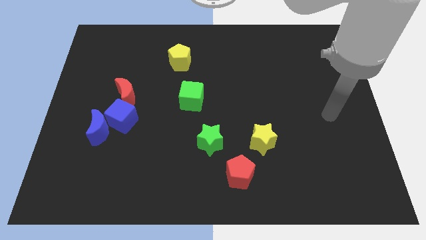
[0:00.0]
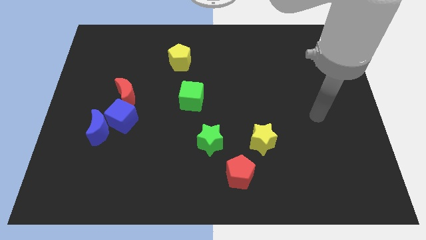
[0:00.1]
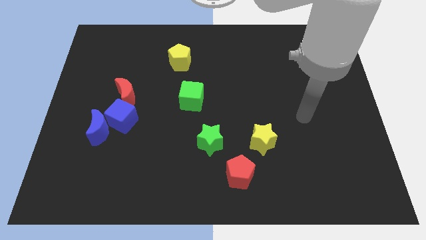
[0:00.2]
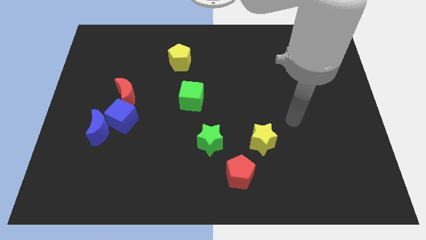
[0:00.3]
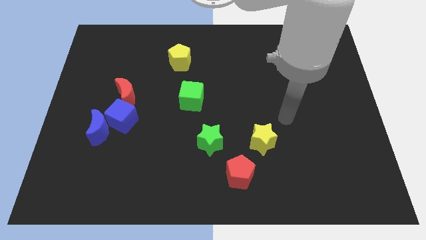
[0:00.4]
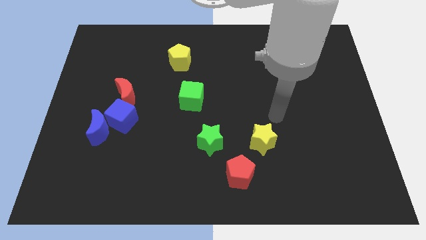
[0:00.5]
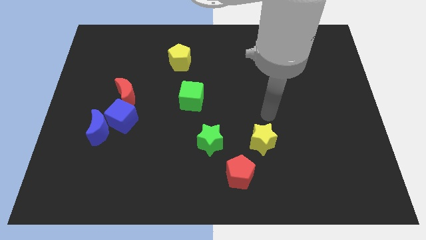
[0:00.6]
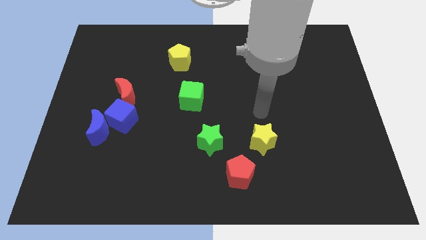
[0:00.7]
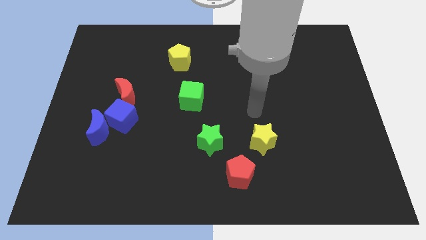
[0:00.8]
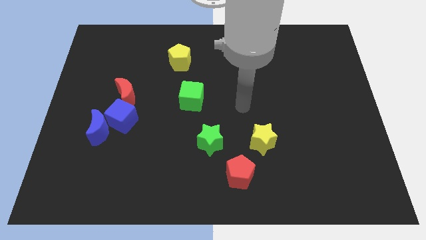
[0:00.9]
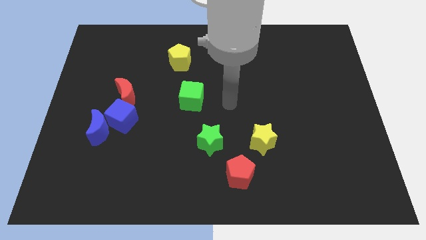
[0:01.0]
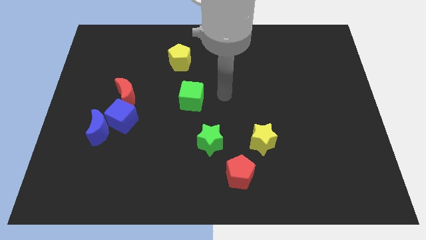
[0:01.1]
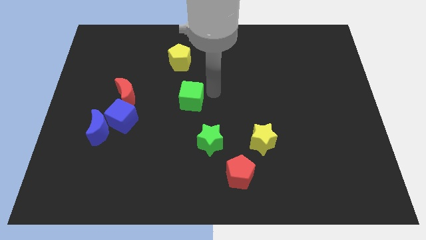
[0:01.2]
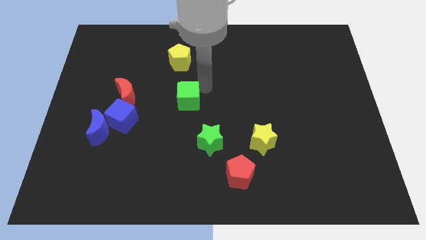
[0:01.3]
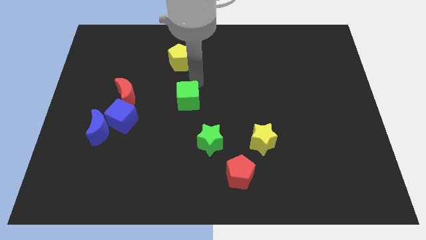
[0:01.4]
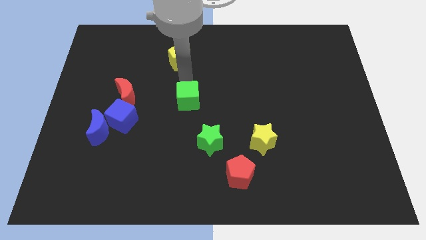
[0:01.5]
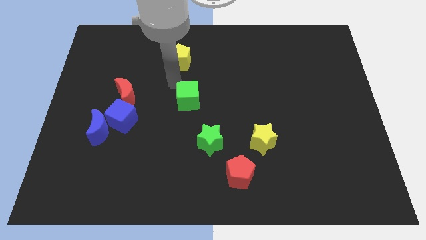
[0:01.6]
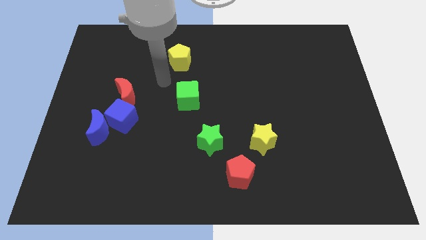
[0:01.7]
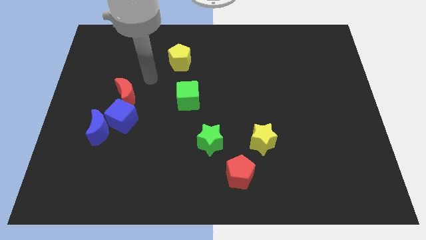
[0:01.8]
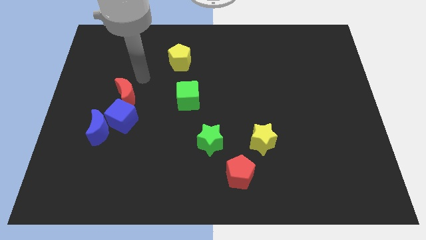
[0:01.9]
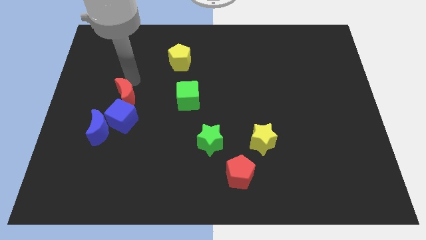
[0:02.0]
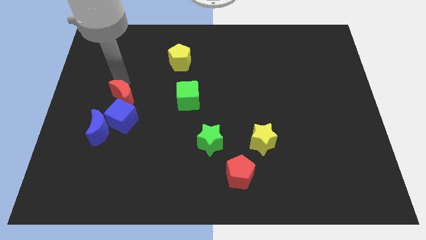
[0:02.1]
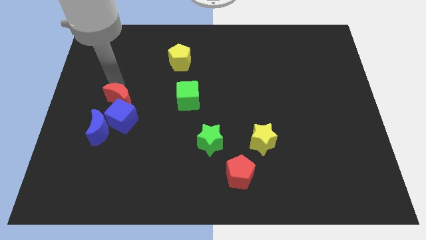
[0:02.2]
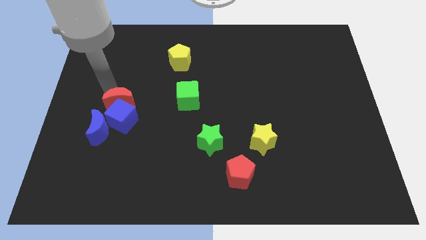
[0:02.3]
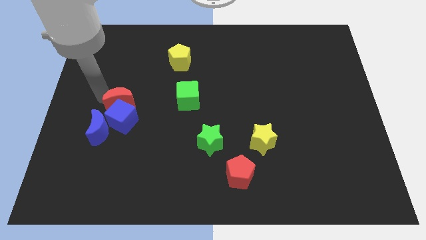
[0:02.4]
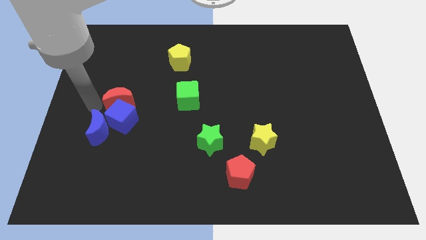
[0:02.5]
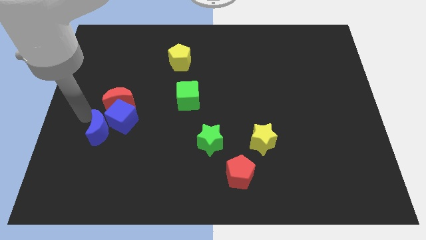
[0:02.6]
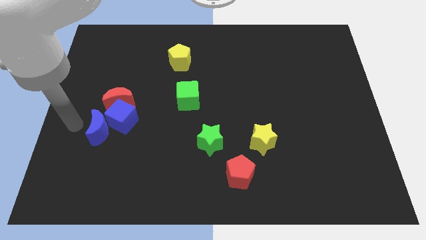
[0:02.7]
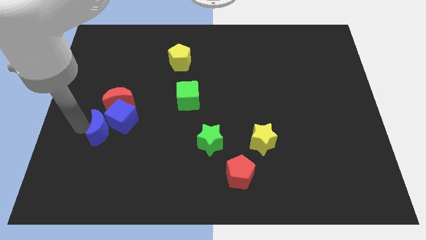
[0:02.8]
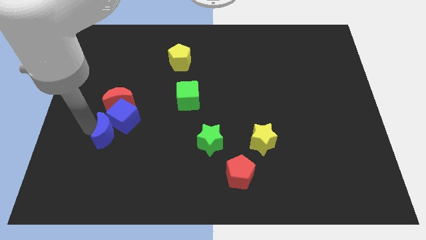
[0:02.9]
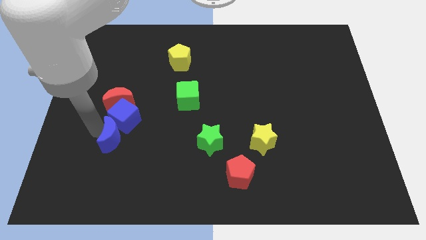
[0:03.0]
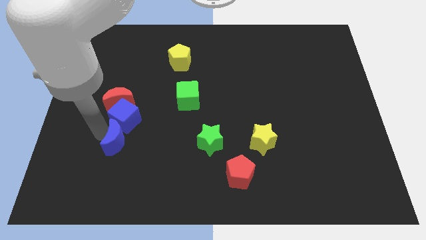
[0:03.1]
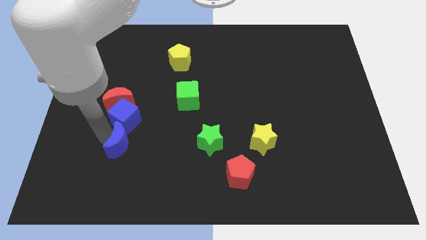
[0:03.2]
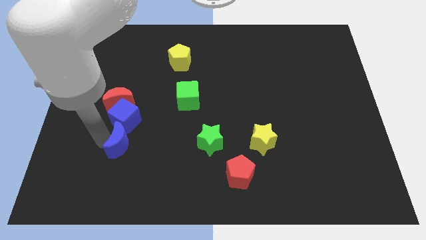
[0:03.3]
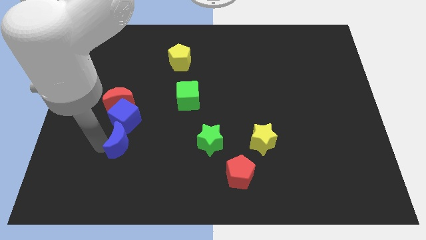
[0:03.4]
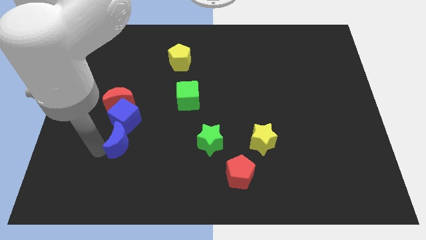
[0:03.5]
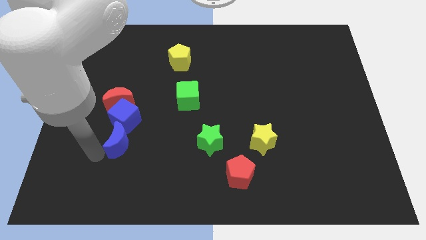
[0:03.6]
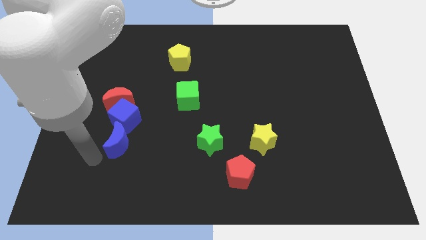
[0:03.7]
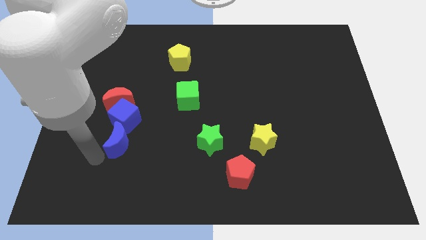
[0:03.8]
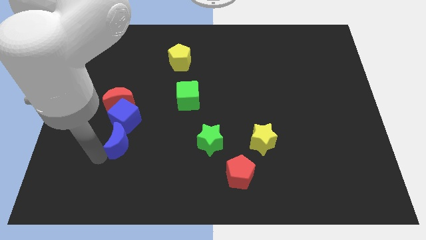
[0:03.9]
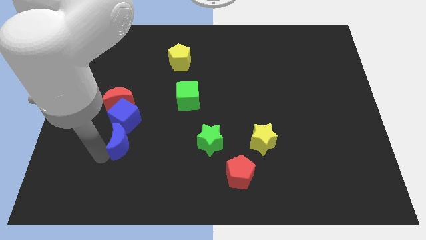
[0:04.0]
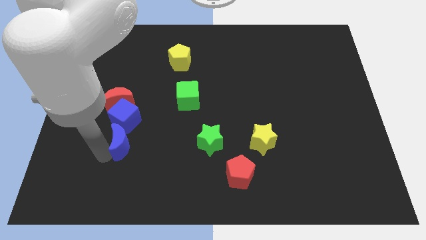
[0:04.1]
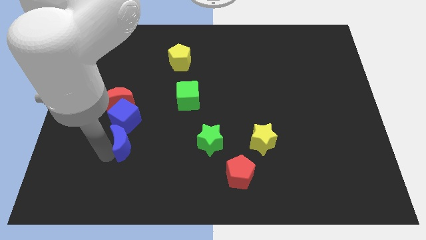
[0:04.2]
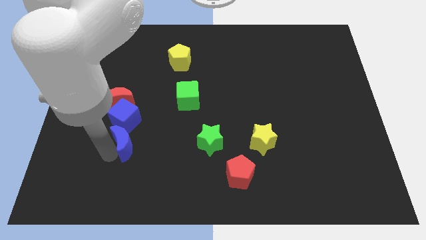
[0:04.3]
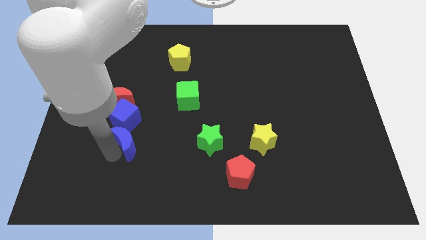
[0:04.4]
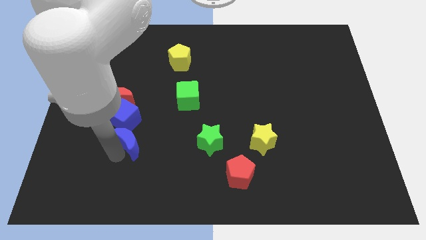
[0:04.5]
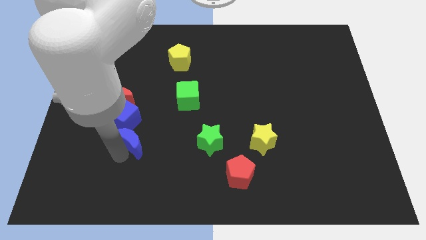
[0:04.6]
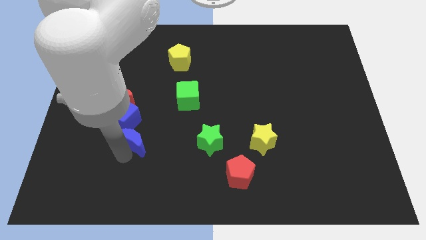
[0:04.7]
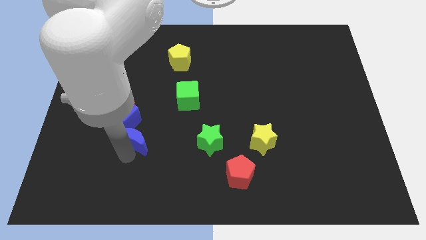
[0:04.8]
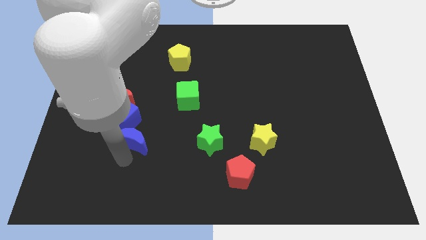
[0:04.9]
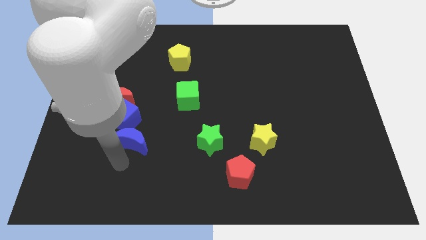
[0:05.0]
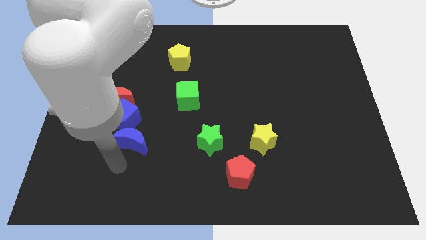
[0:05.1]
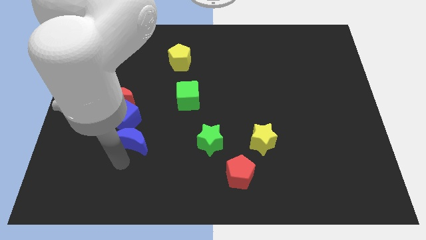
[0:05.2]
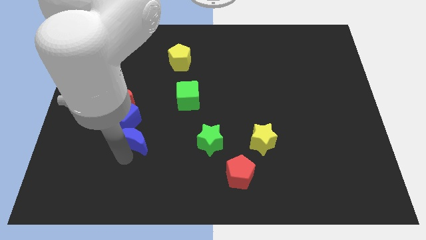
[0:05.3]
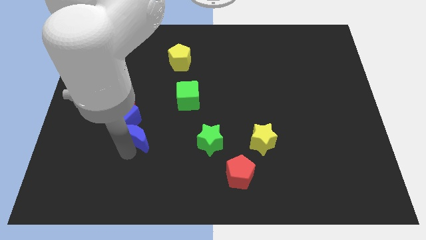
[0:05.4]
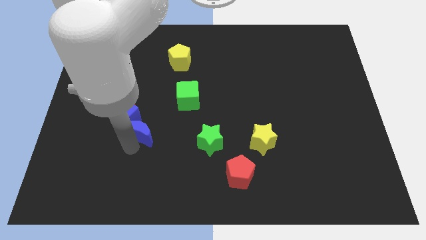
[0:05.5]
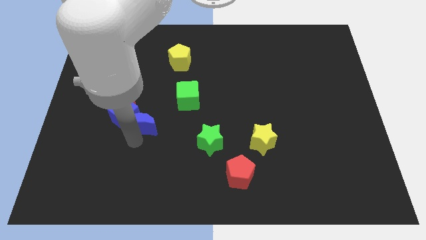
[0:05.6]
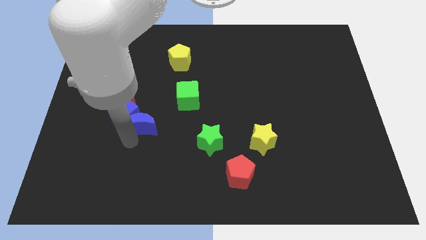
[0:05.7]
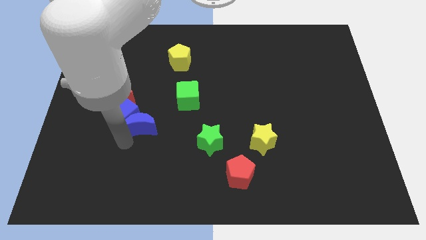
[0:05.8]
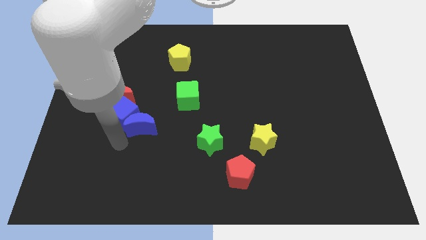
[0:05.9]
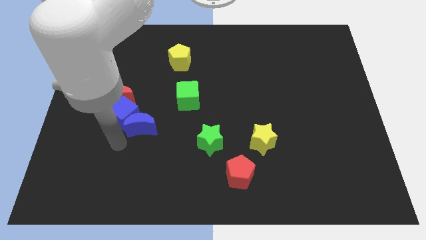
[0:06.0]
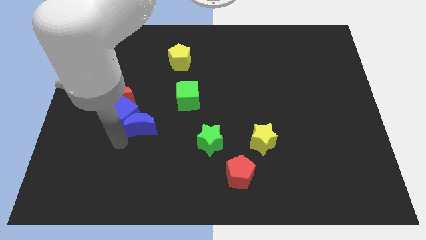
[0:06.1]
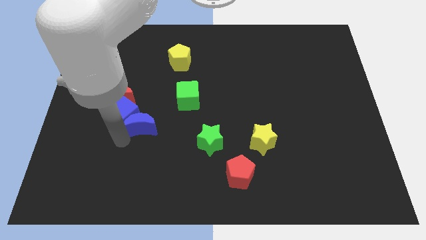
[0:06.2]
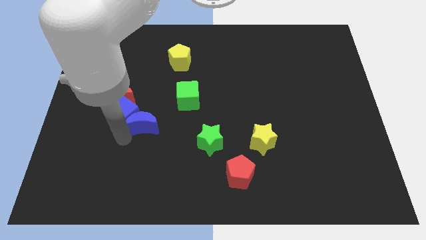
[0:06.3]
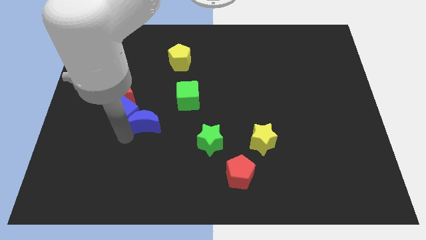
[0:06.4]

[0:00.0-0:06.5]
move the blue moon slightly diagonally upwards and to the right

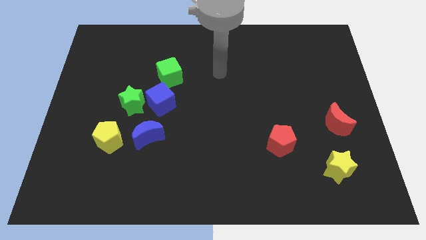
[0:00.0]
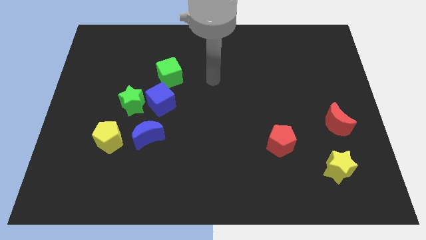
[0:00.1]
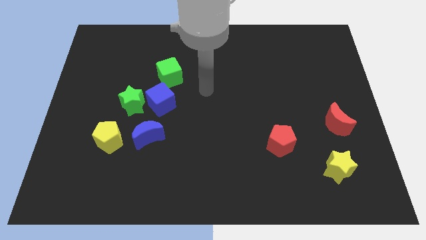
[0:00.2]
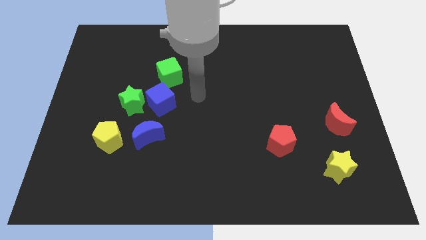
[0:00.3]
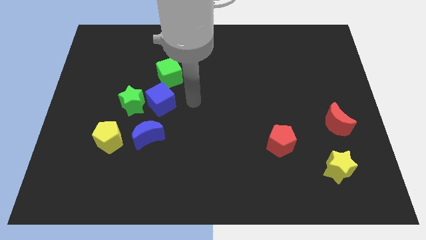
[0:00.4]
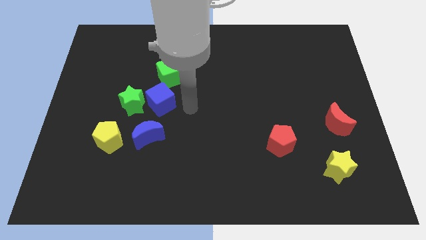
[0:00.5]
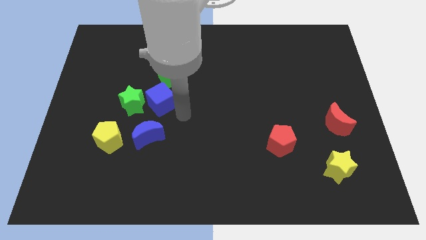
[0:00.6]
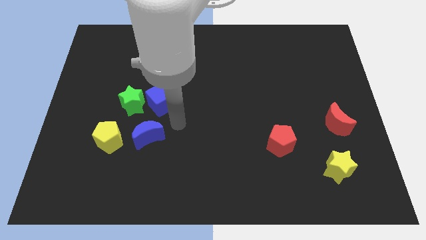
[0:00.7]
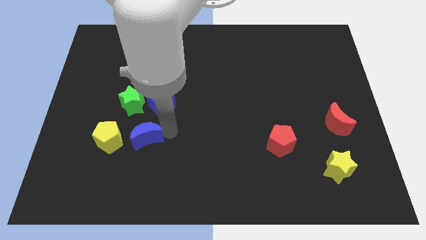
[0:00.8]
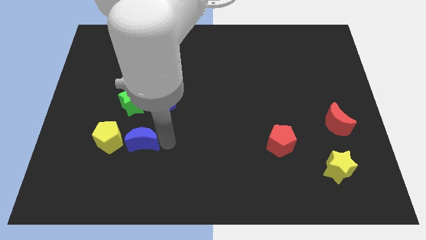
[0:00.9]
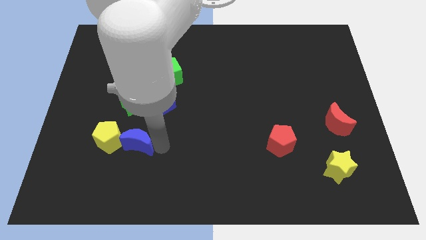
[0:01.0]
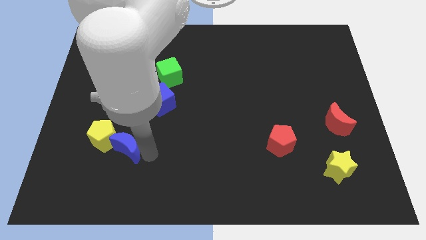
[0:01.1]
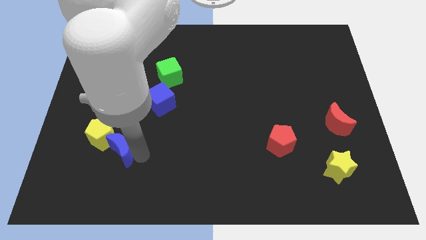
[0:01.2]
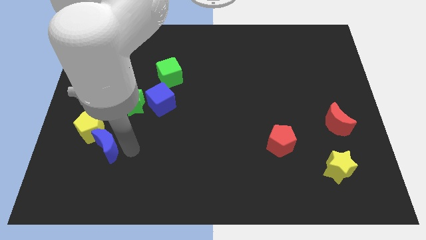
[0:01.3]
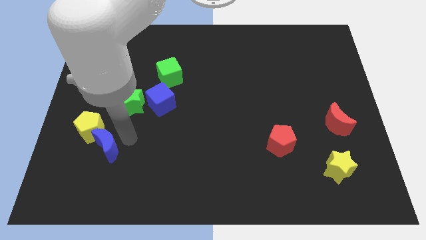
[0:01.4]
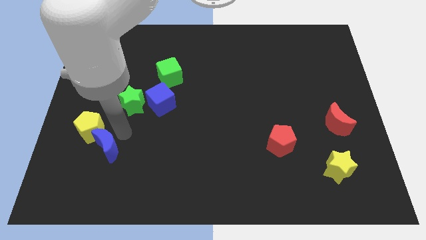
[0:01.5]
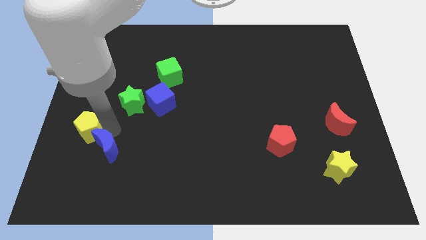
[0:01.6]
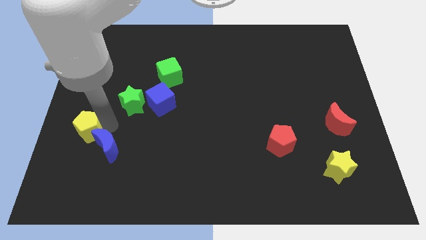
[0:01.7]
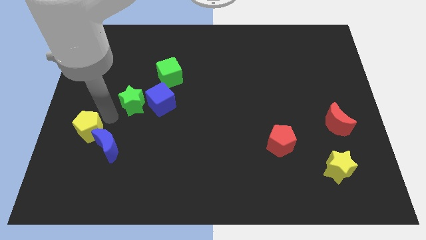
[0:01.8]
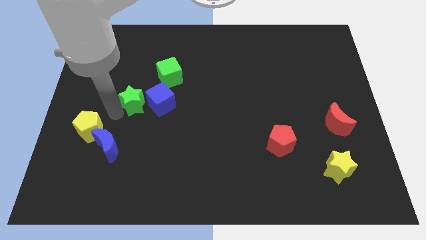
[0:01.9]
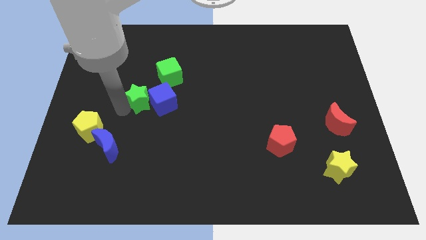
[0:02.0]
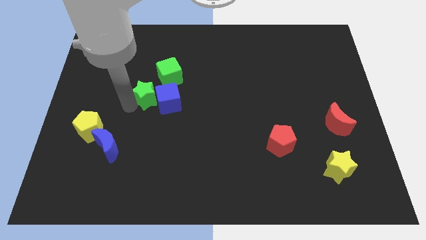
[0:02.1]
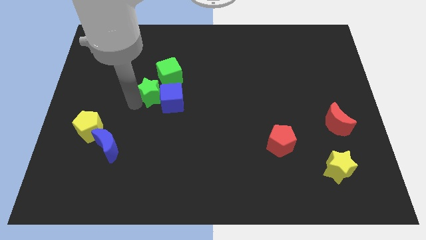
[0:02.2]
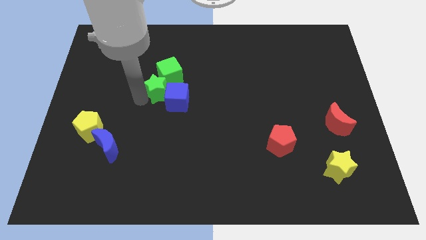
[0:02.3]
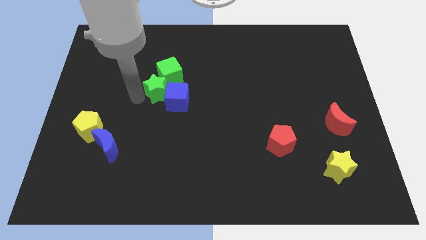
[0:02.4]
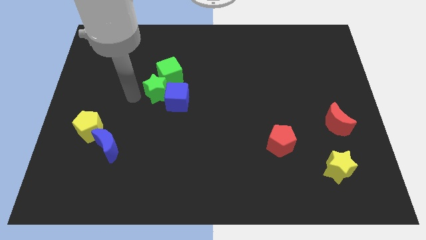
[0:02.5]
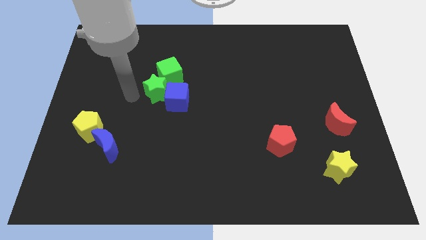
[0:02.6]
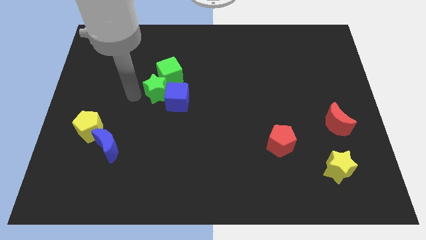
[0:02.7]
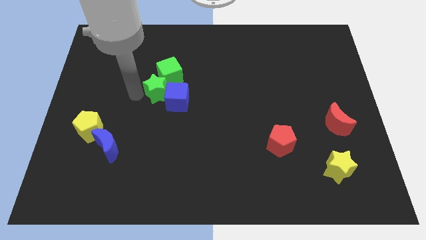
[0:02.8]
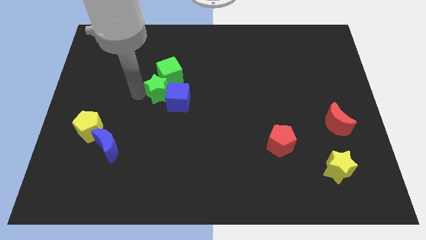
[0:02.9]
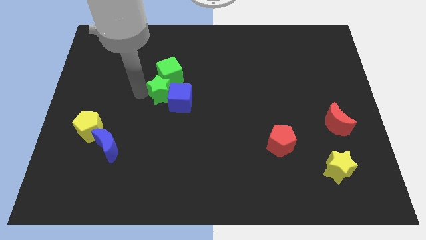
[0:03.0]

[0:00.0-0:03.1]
push the green star a bit upwards and to the right
